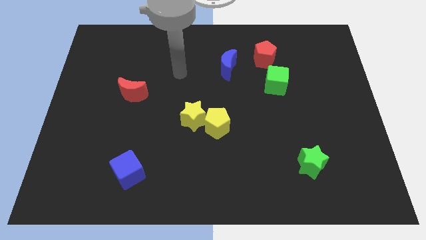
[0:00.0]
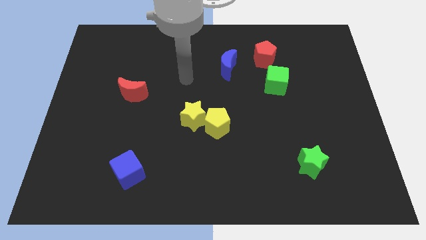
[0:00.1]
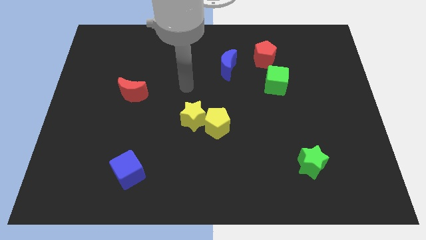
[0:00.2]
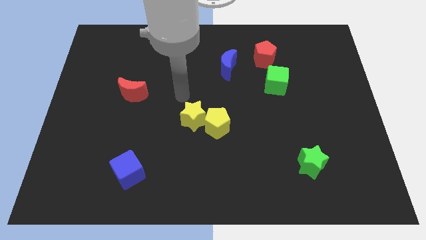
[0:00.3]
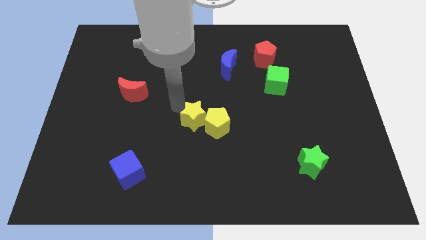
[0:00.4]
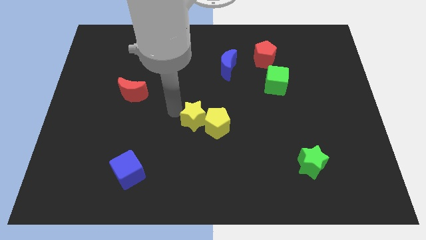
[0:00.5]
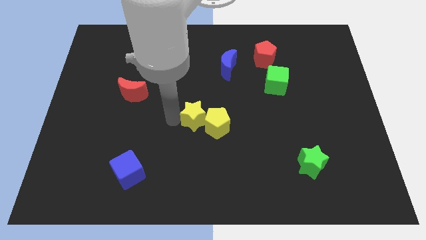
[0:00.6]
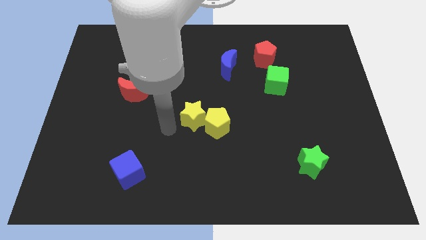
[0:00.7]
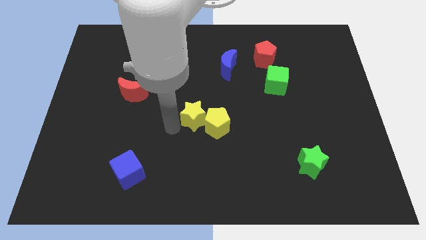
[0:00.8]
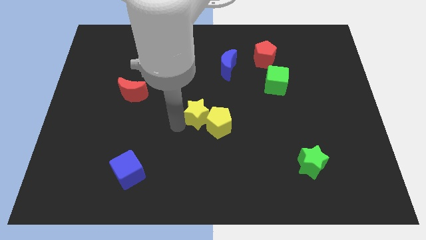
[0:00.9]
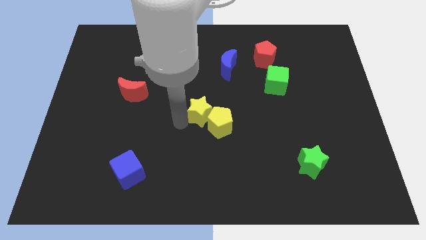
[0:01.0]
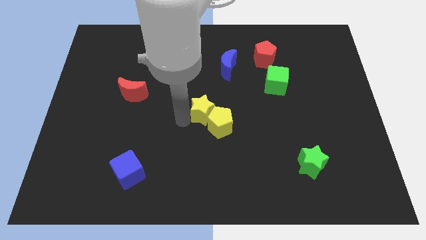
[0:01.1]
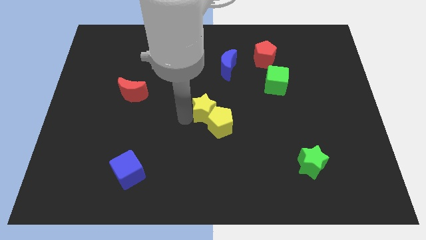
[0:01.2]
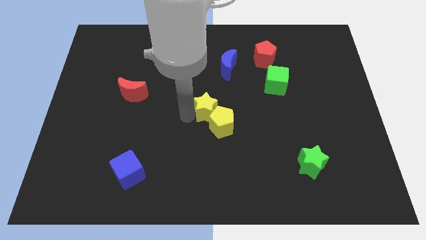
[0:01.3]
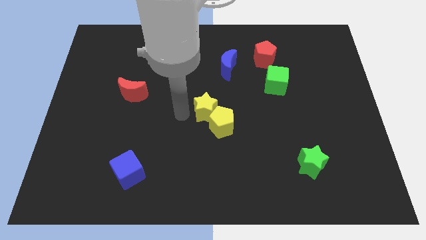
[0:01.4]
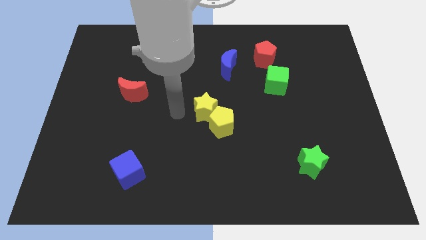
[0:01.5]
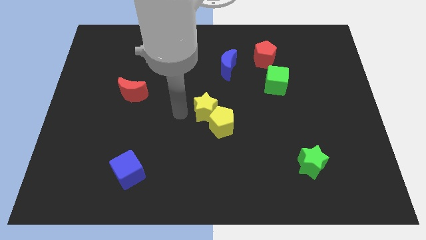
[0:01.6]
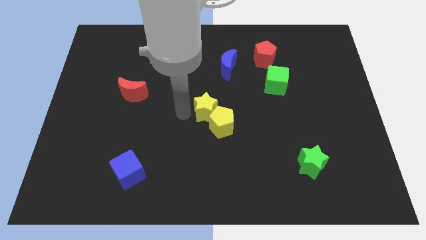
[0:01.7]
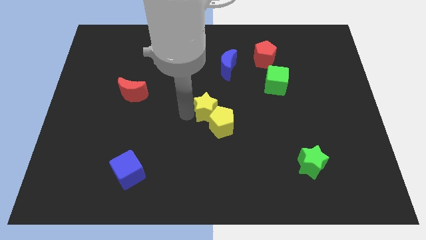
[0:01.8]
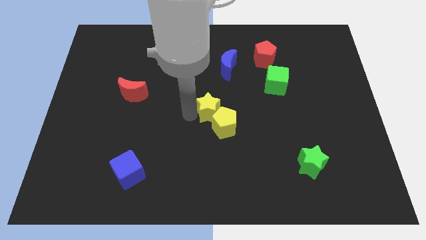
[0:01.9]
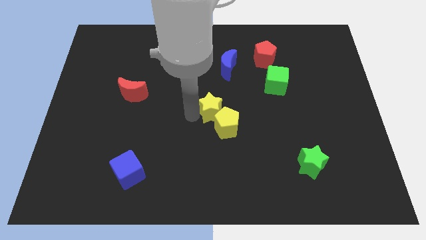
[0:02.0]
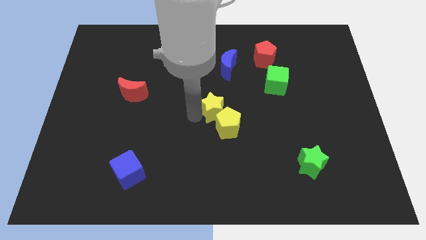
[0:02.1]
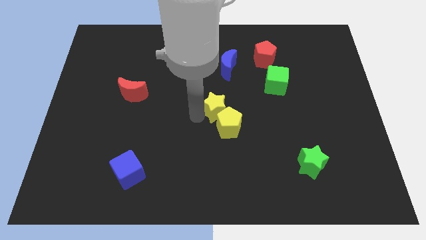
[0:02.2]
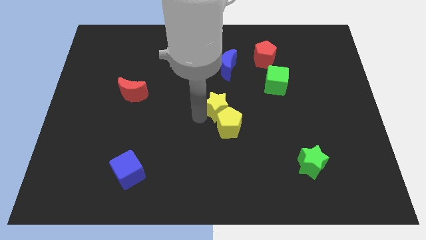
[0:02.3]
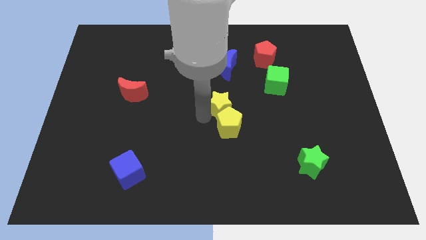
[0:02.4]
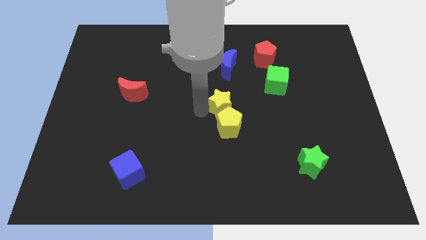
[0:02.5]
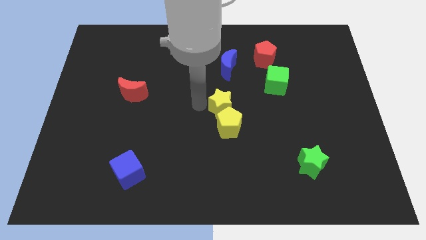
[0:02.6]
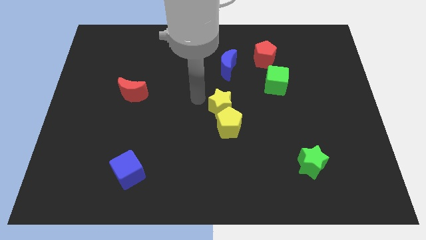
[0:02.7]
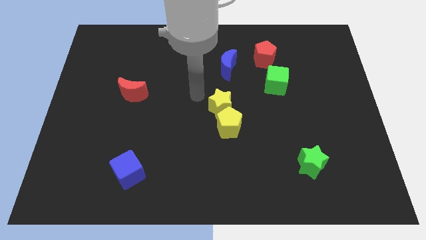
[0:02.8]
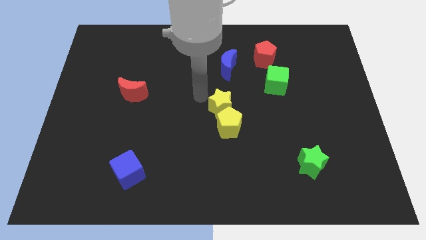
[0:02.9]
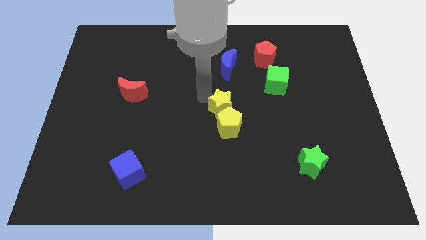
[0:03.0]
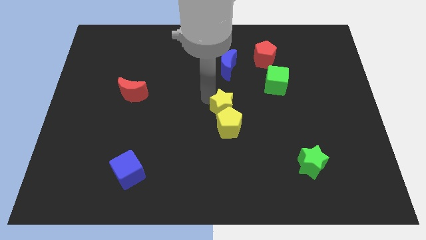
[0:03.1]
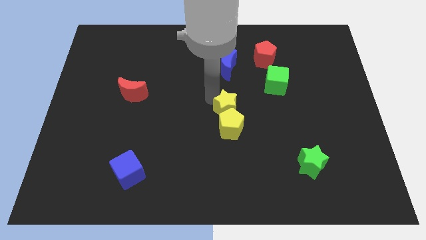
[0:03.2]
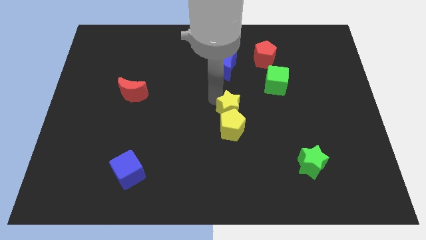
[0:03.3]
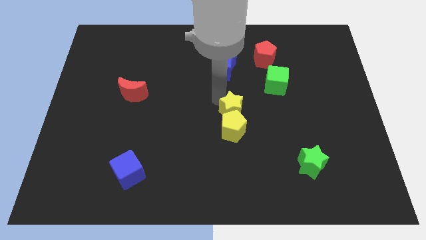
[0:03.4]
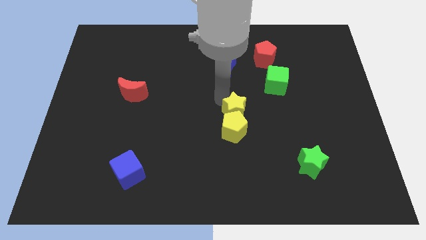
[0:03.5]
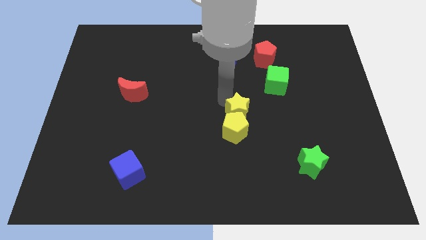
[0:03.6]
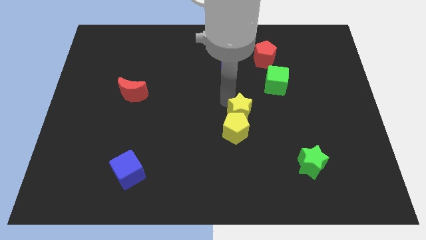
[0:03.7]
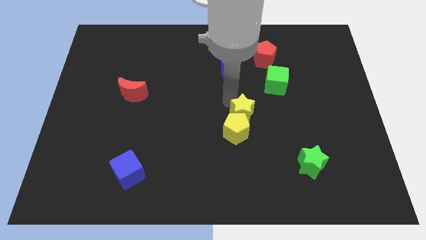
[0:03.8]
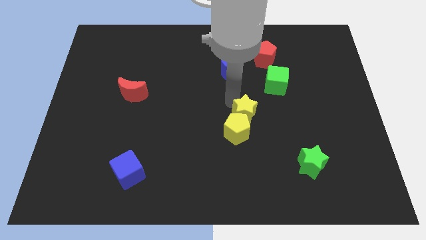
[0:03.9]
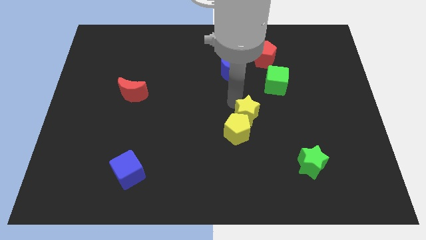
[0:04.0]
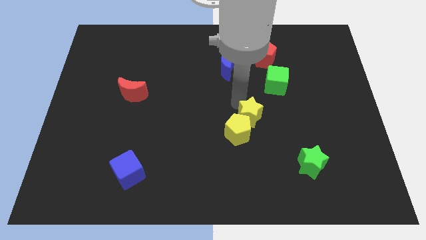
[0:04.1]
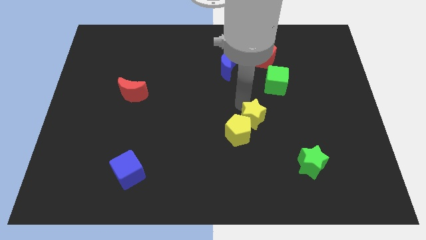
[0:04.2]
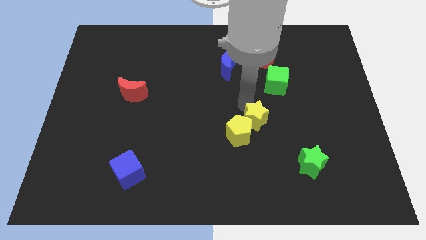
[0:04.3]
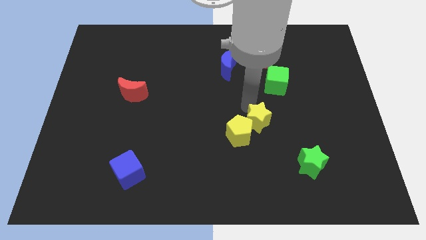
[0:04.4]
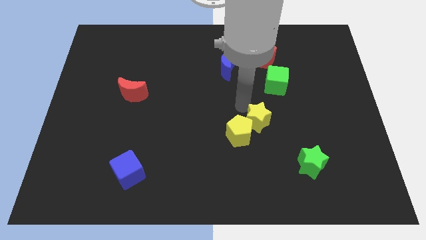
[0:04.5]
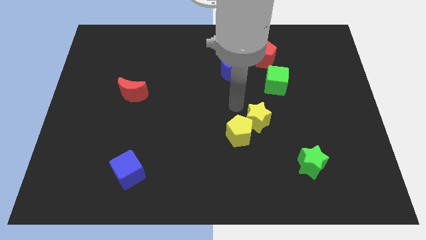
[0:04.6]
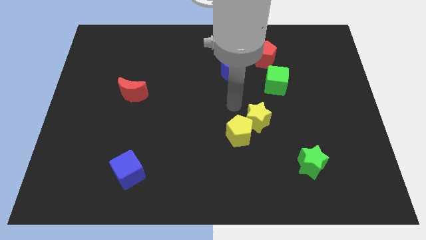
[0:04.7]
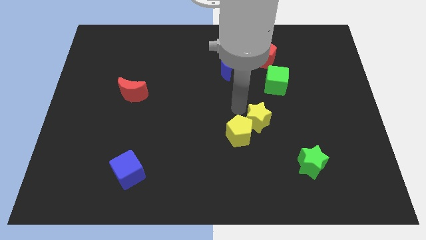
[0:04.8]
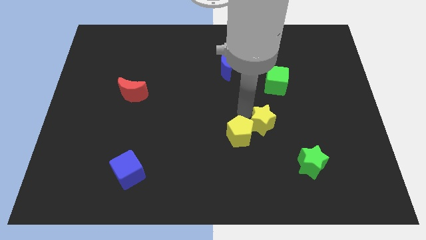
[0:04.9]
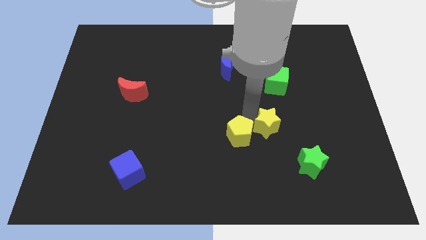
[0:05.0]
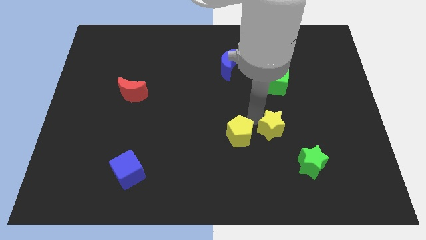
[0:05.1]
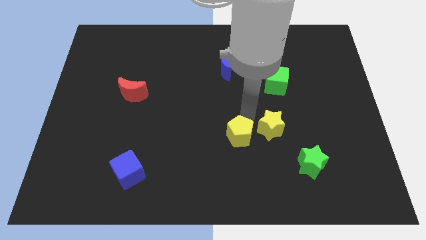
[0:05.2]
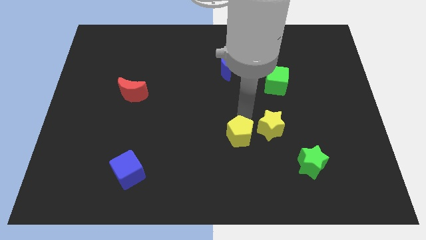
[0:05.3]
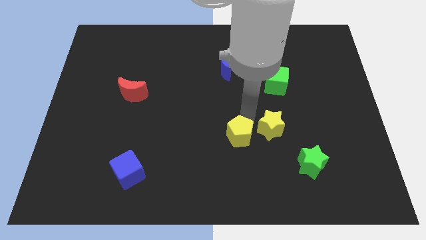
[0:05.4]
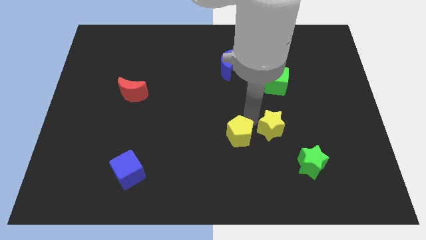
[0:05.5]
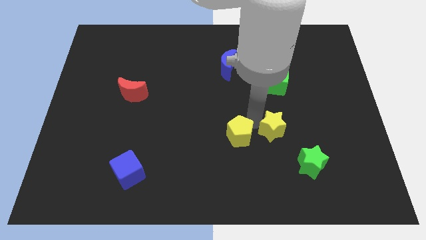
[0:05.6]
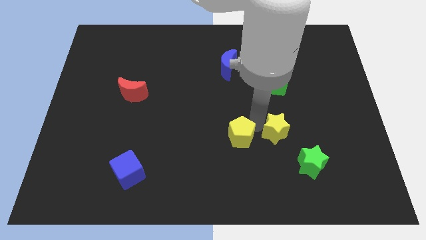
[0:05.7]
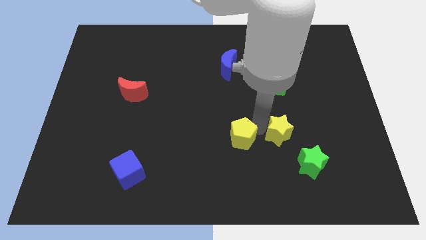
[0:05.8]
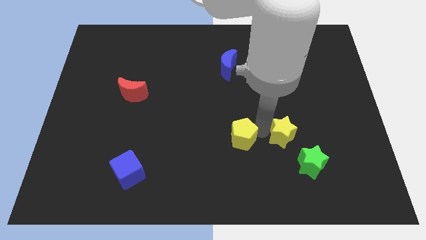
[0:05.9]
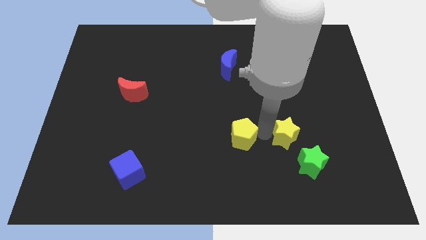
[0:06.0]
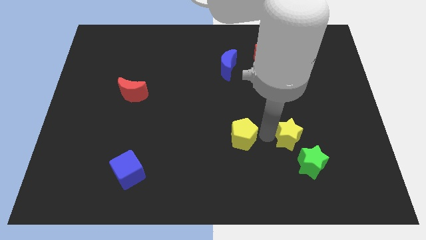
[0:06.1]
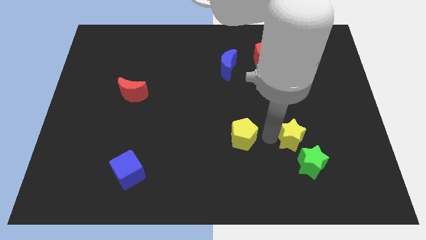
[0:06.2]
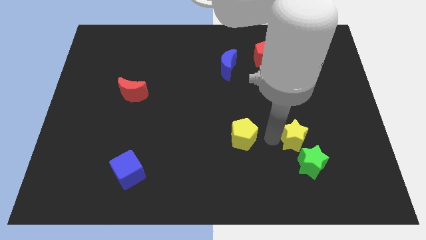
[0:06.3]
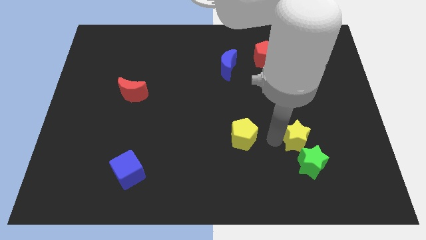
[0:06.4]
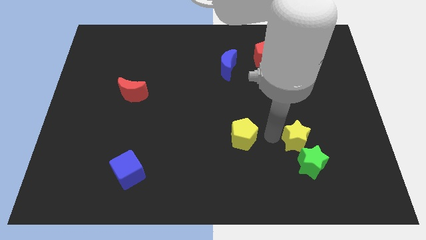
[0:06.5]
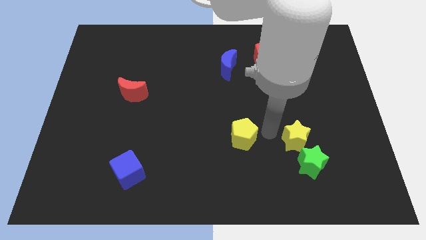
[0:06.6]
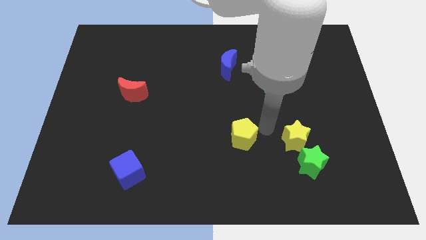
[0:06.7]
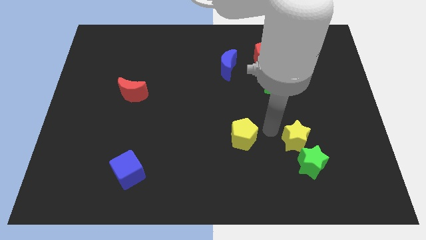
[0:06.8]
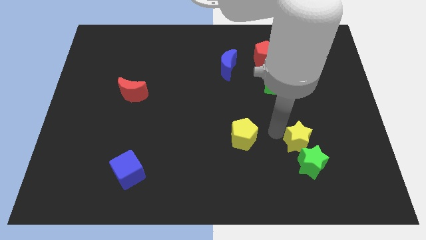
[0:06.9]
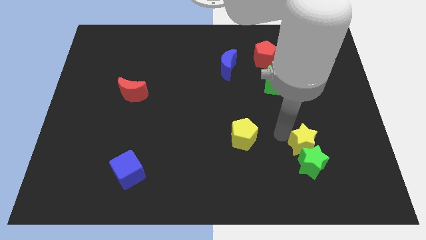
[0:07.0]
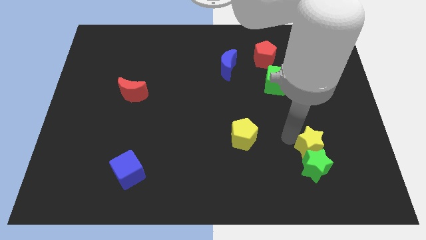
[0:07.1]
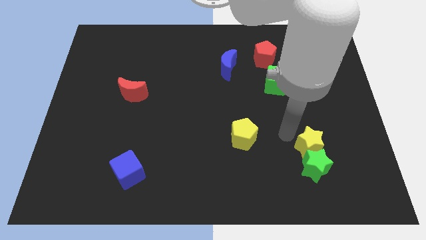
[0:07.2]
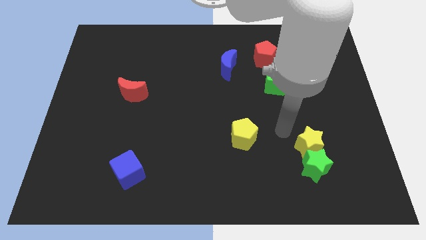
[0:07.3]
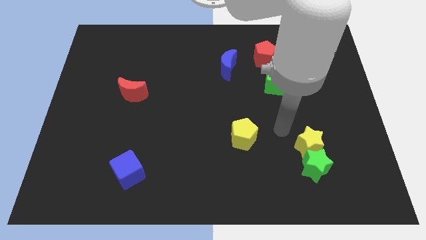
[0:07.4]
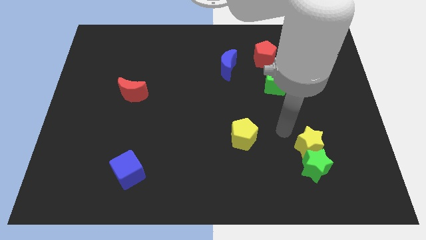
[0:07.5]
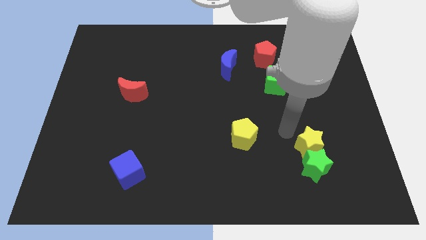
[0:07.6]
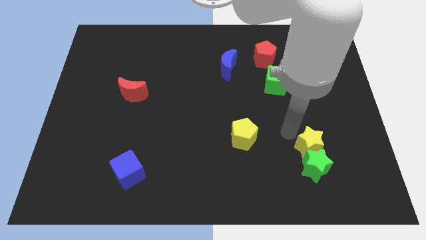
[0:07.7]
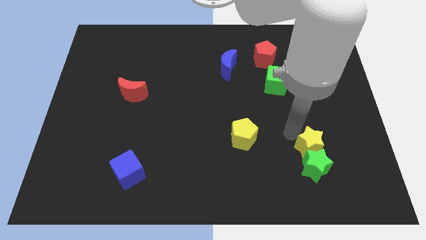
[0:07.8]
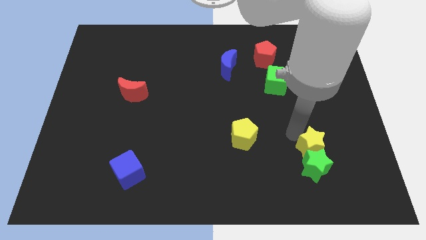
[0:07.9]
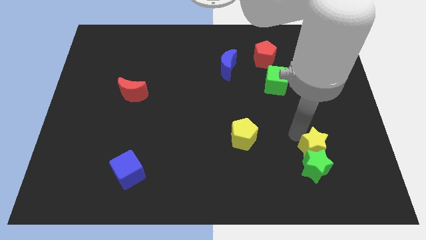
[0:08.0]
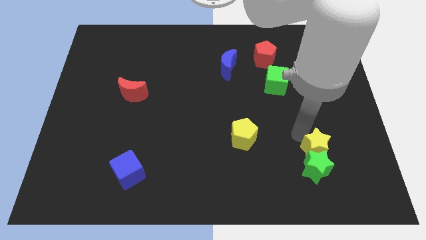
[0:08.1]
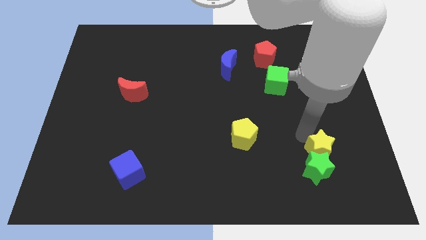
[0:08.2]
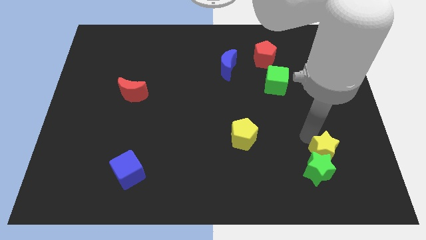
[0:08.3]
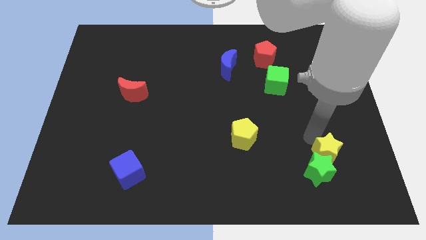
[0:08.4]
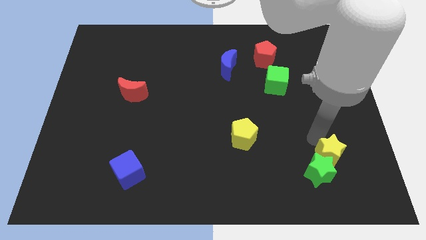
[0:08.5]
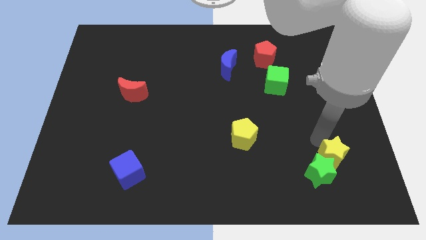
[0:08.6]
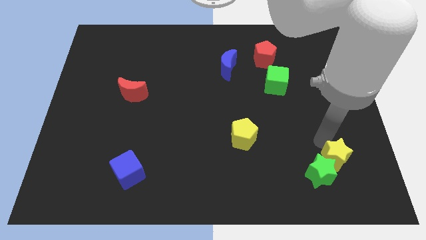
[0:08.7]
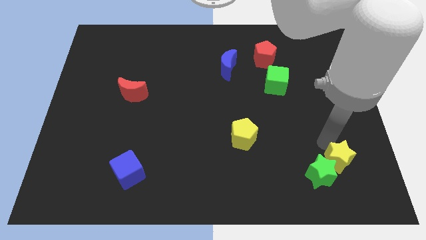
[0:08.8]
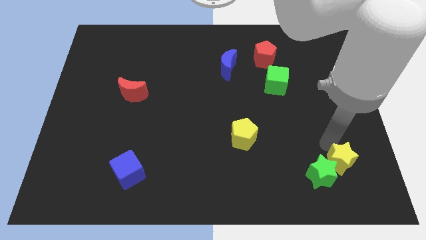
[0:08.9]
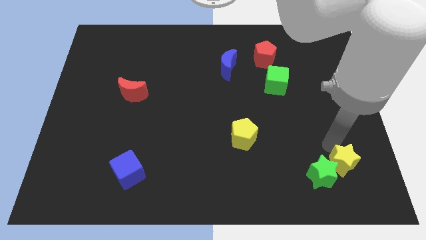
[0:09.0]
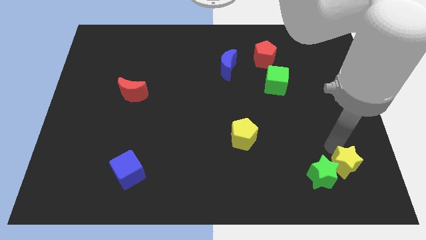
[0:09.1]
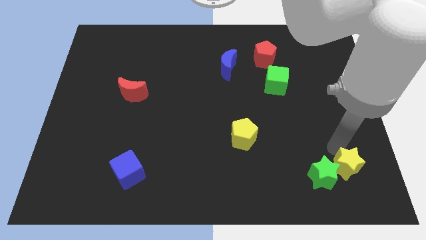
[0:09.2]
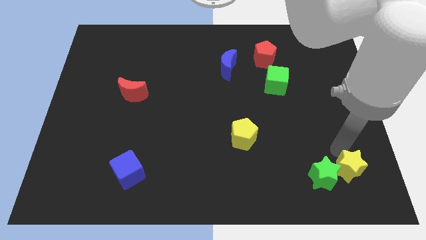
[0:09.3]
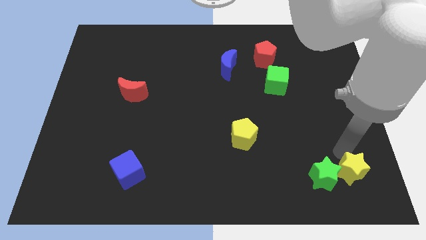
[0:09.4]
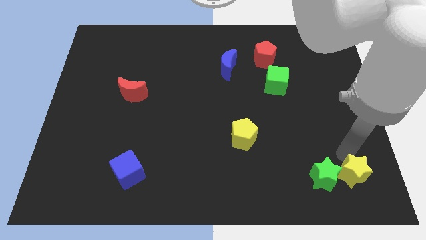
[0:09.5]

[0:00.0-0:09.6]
push the yellow star to the bottom right corner
